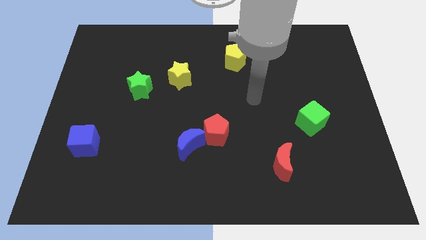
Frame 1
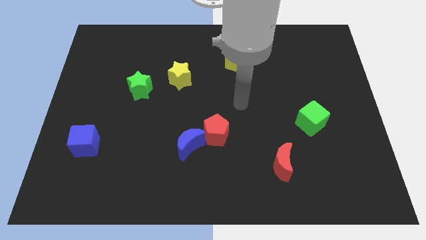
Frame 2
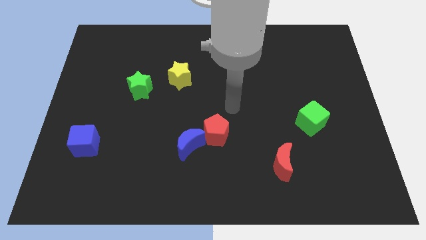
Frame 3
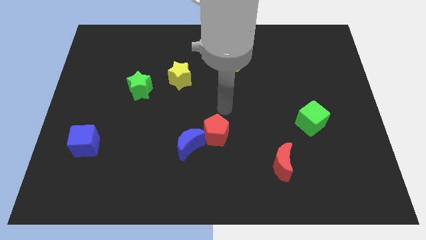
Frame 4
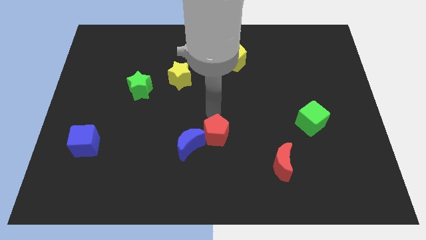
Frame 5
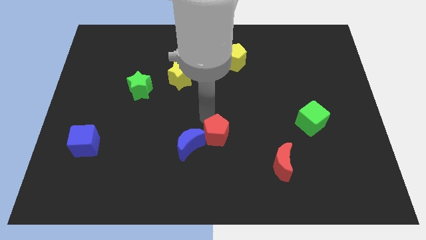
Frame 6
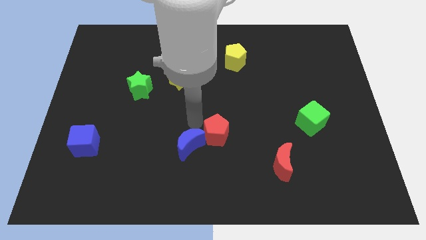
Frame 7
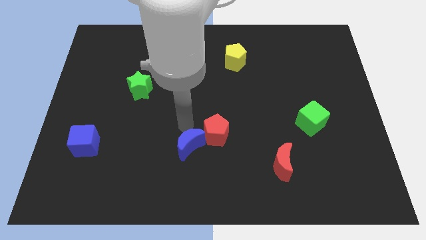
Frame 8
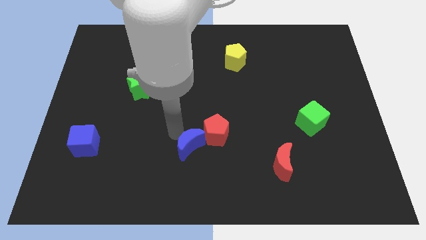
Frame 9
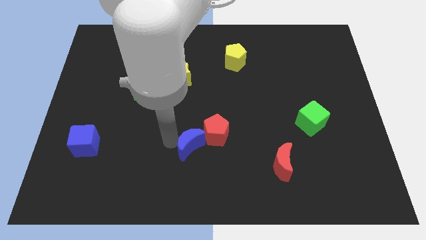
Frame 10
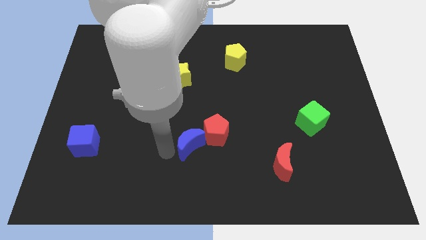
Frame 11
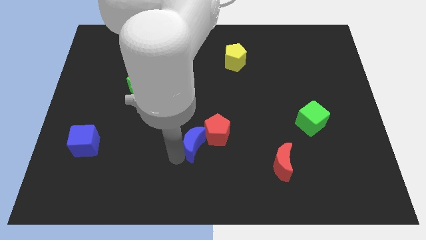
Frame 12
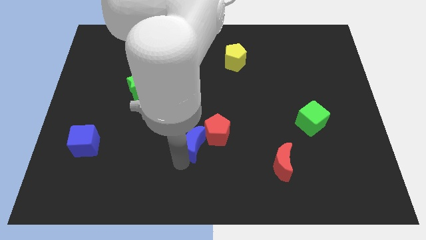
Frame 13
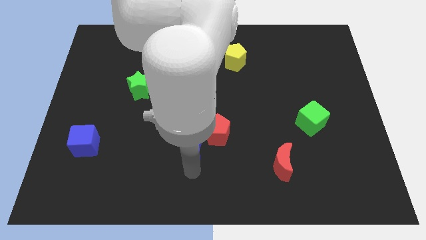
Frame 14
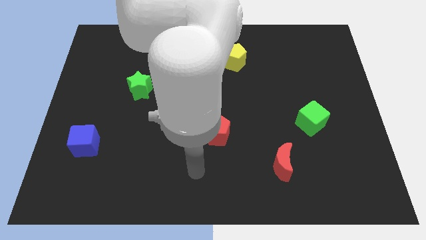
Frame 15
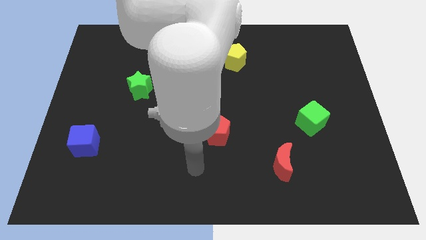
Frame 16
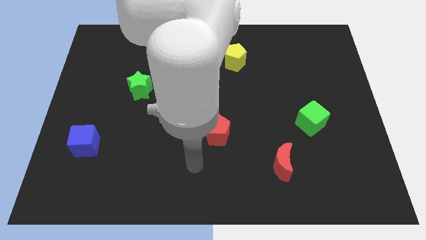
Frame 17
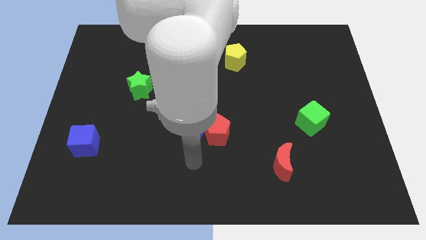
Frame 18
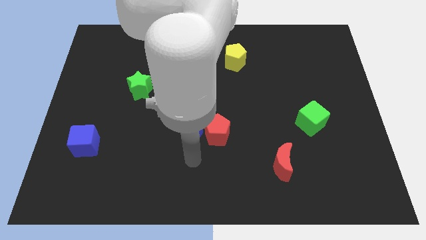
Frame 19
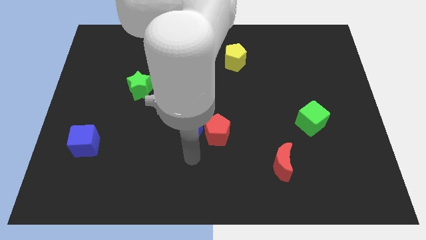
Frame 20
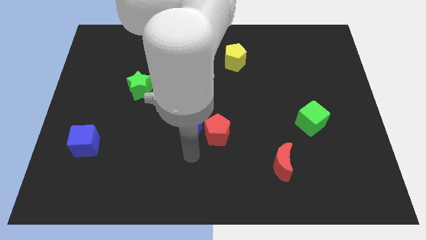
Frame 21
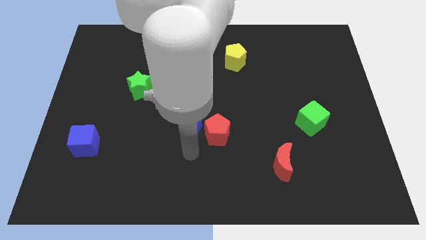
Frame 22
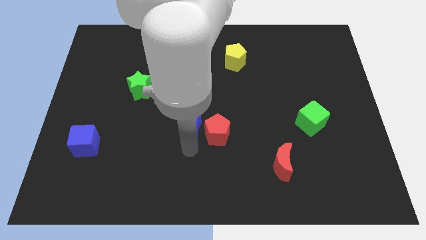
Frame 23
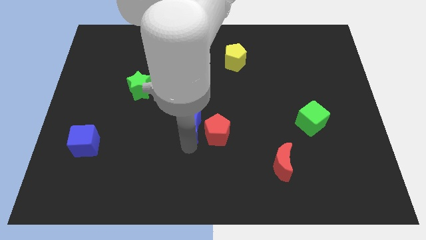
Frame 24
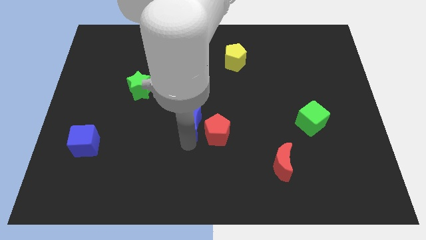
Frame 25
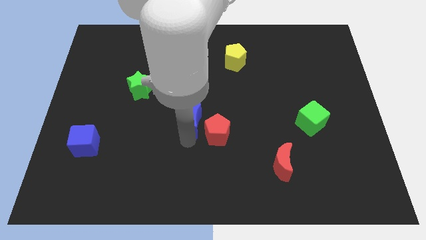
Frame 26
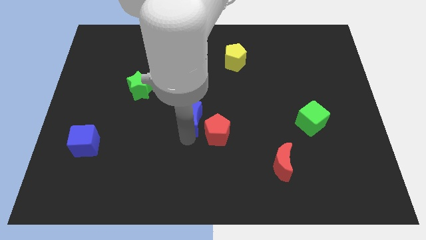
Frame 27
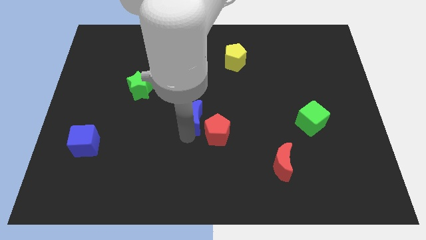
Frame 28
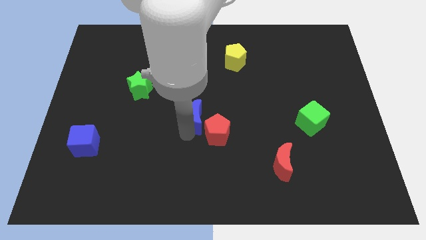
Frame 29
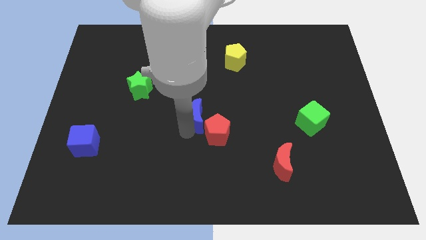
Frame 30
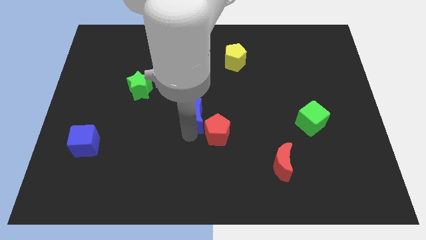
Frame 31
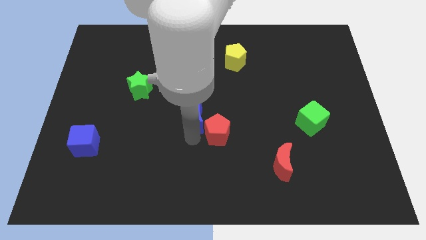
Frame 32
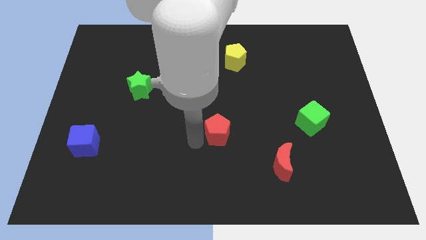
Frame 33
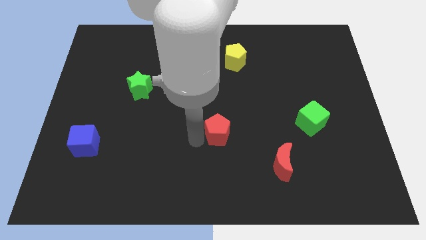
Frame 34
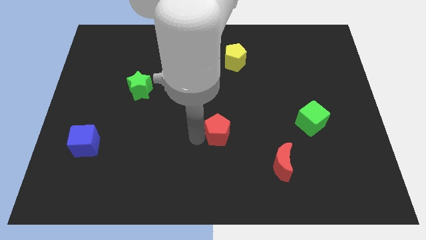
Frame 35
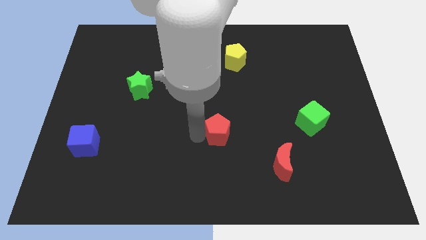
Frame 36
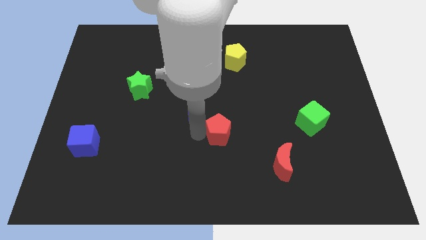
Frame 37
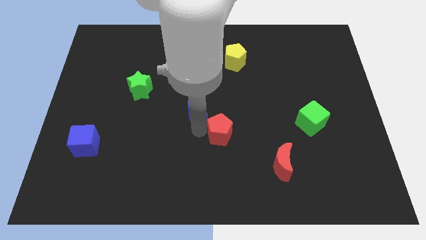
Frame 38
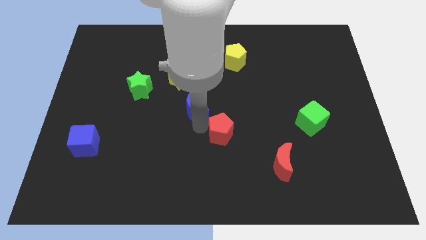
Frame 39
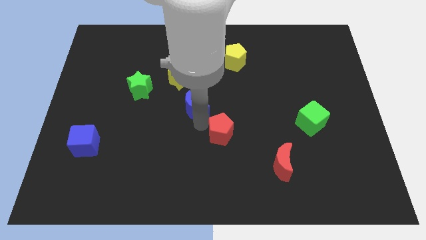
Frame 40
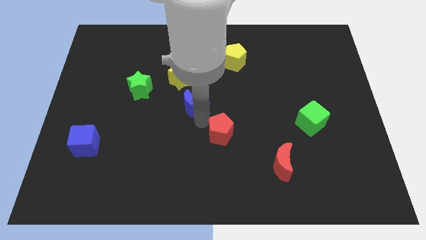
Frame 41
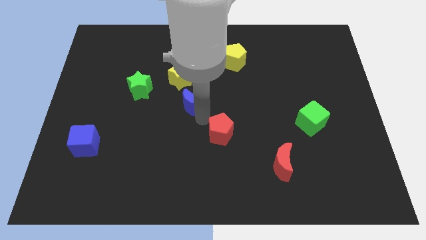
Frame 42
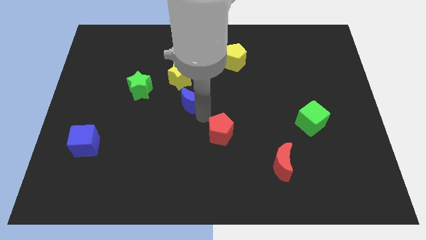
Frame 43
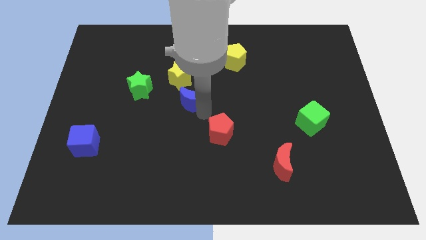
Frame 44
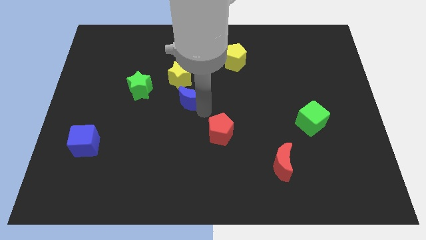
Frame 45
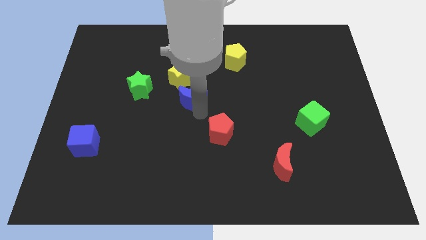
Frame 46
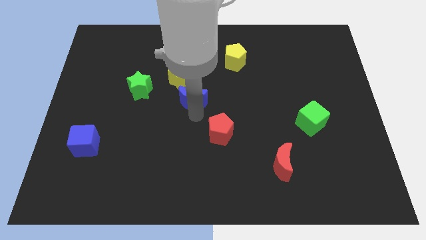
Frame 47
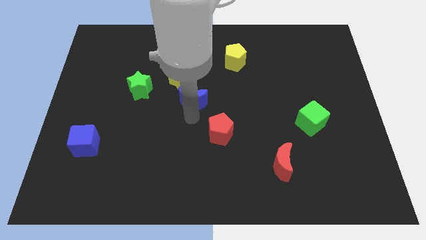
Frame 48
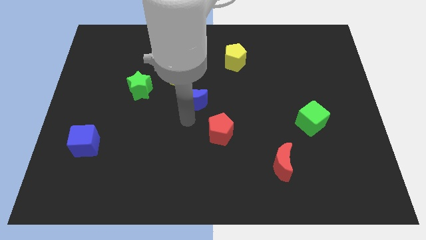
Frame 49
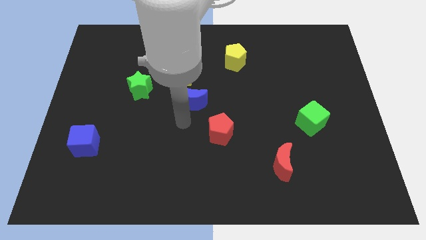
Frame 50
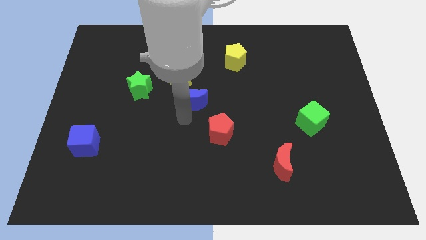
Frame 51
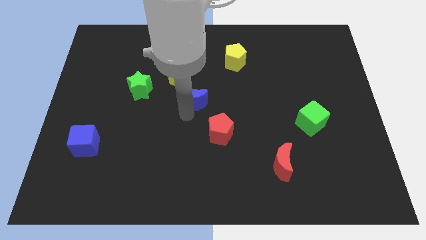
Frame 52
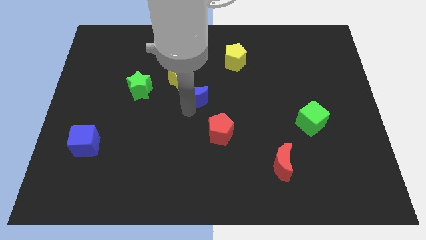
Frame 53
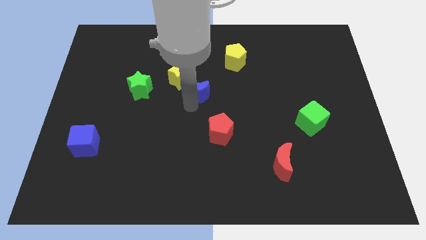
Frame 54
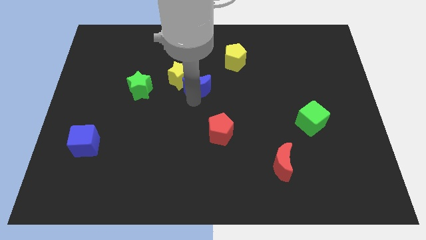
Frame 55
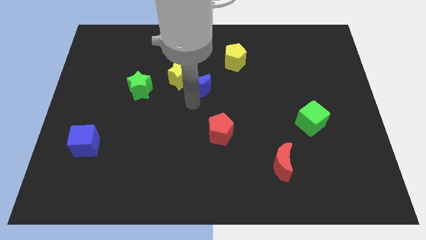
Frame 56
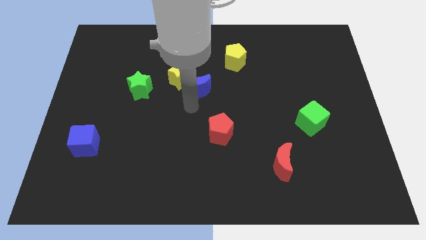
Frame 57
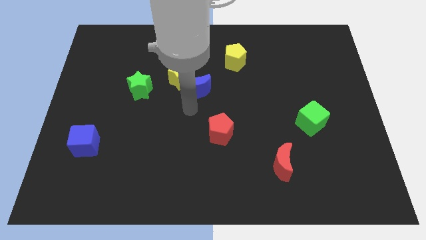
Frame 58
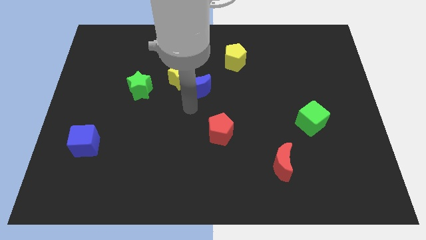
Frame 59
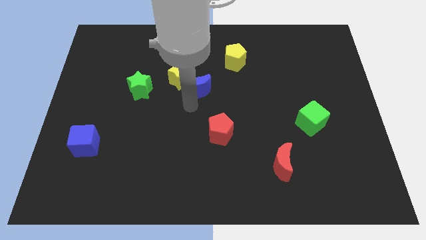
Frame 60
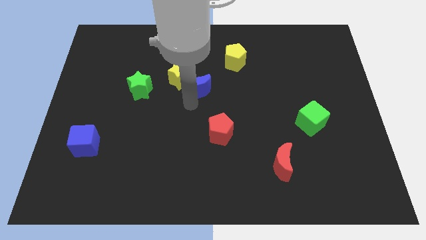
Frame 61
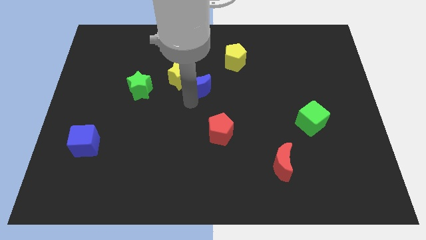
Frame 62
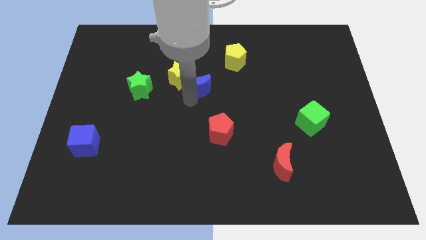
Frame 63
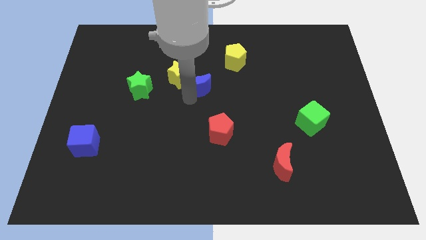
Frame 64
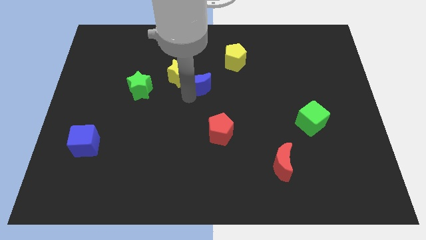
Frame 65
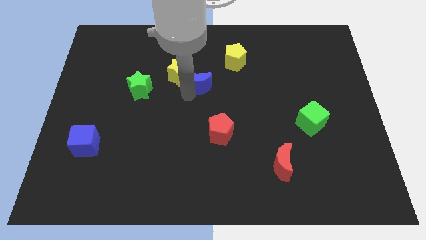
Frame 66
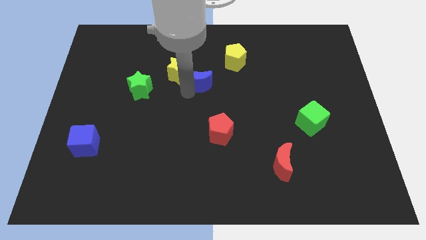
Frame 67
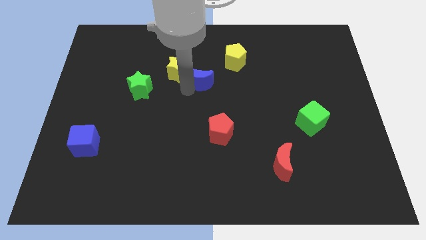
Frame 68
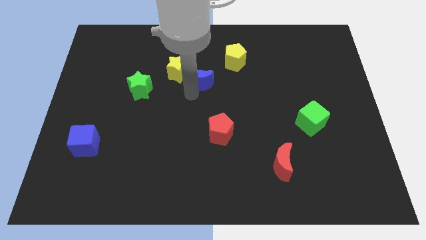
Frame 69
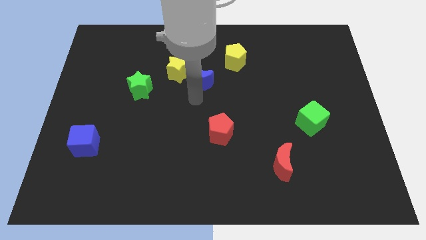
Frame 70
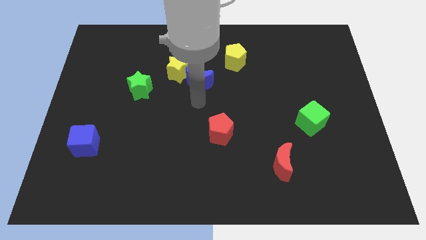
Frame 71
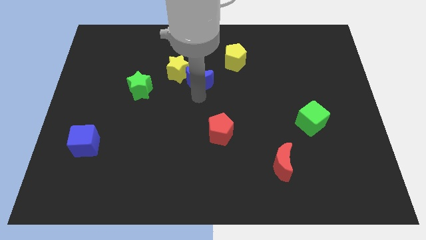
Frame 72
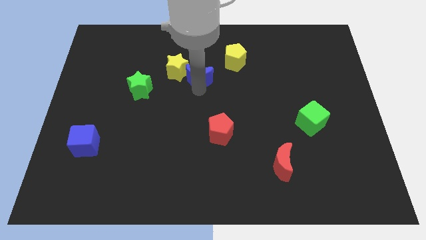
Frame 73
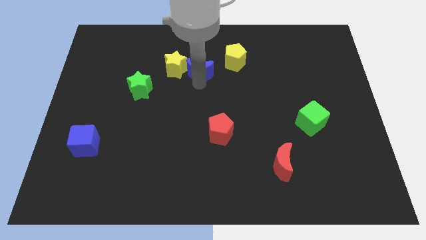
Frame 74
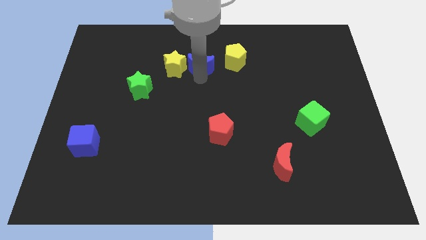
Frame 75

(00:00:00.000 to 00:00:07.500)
push the blue moon to the top right of the yellow star

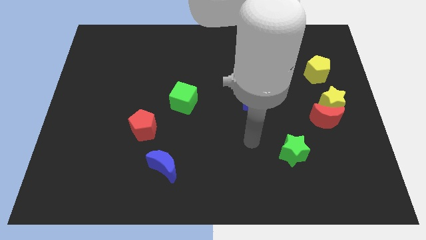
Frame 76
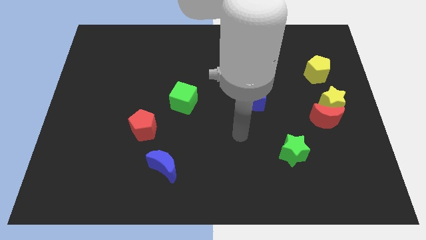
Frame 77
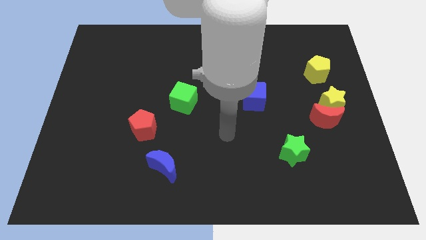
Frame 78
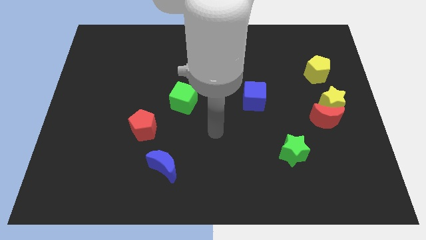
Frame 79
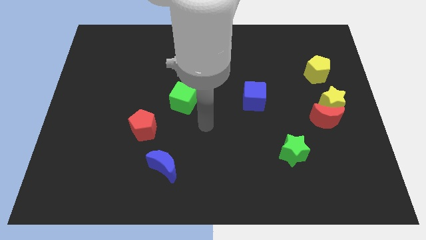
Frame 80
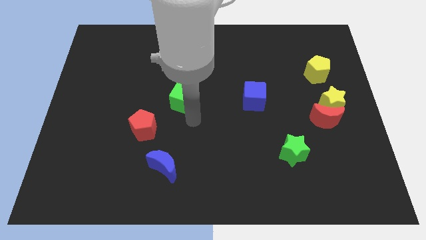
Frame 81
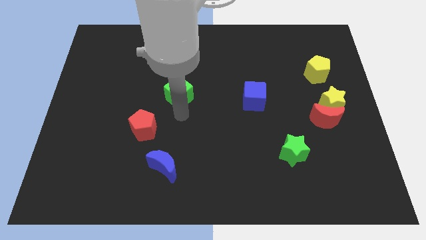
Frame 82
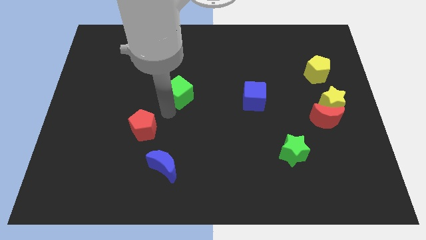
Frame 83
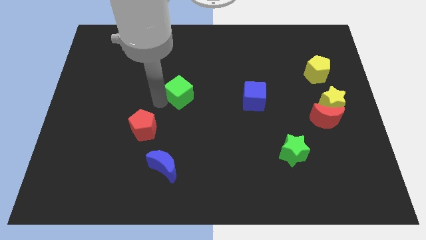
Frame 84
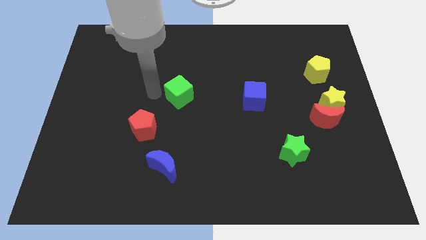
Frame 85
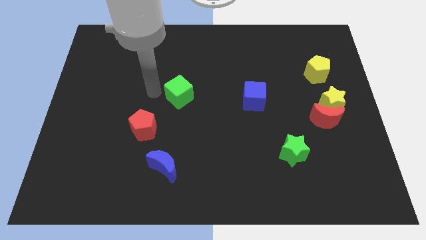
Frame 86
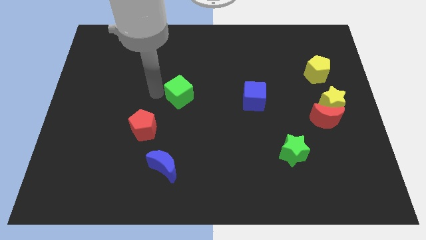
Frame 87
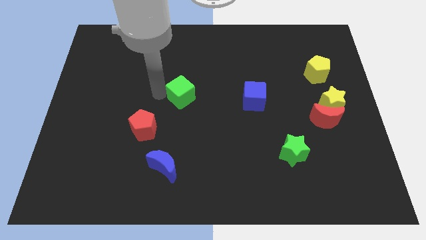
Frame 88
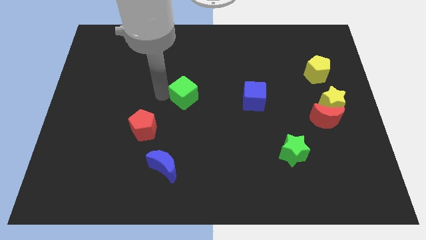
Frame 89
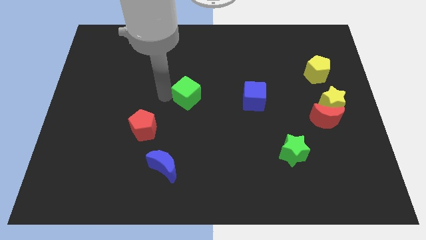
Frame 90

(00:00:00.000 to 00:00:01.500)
slide the green cube to the left of the blue cube
